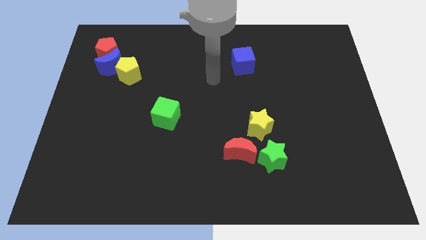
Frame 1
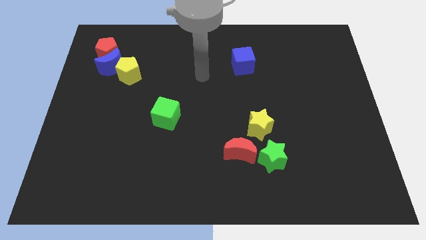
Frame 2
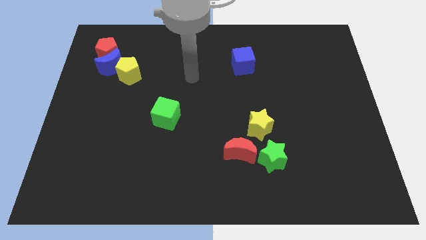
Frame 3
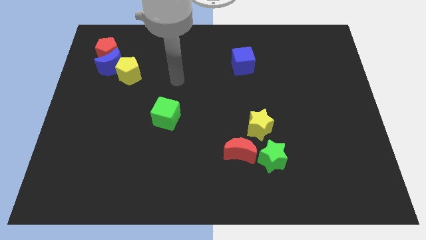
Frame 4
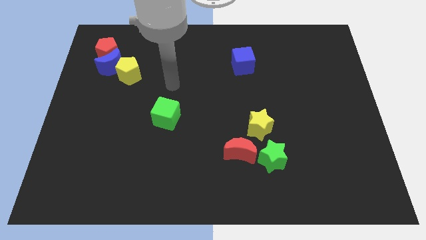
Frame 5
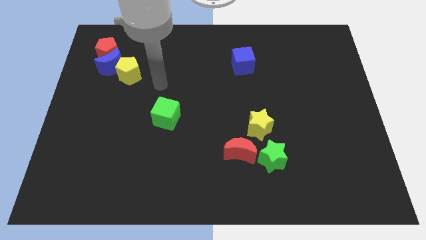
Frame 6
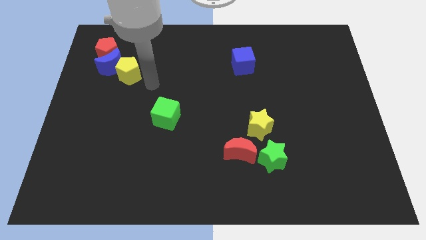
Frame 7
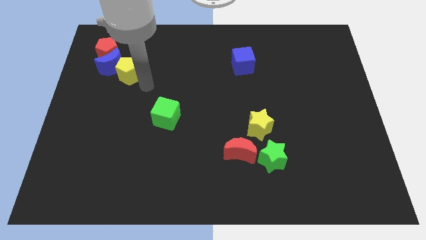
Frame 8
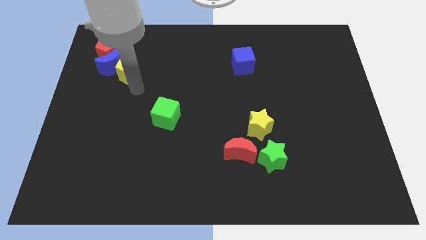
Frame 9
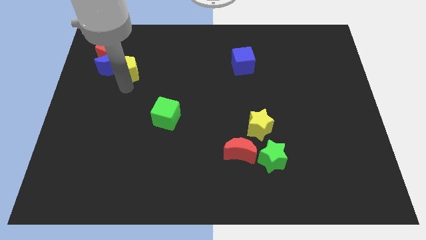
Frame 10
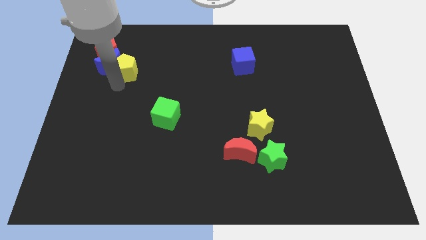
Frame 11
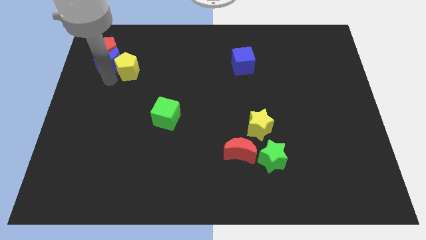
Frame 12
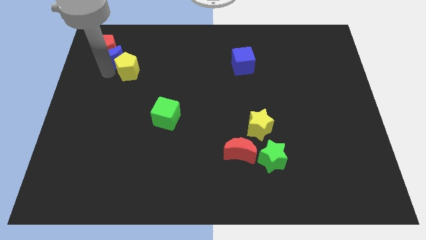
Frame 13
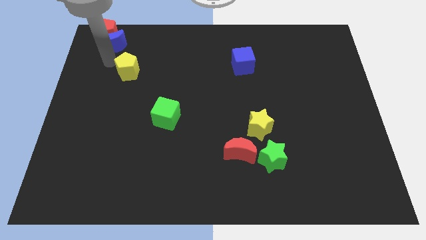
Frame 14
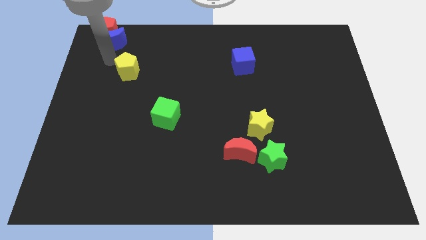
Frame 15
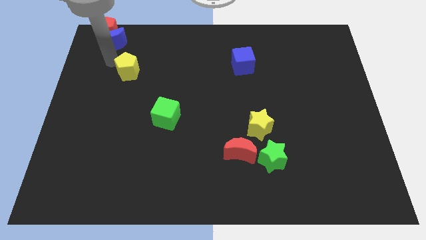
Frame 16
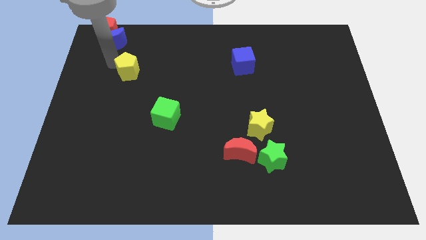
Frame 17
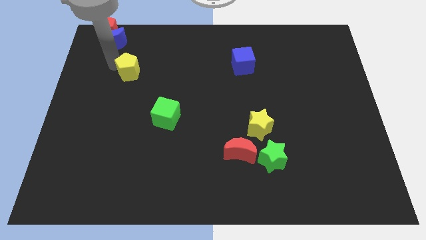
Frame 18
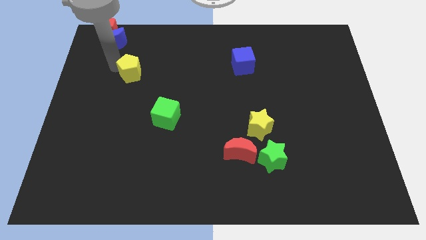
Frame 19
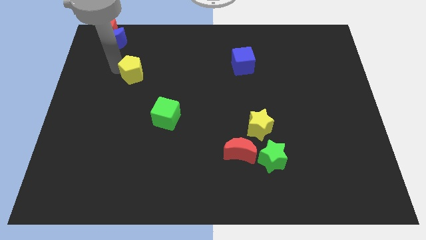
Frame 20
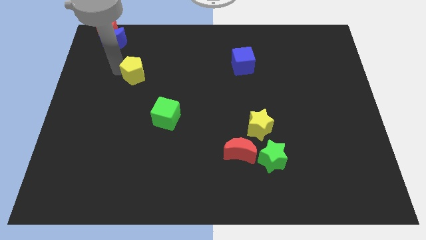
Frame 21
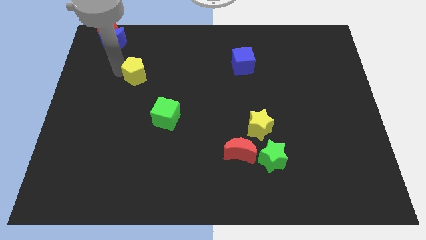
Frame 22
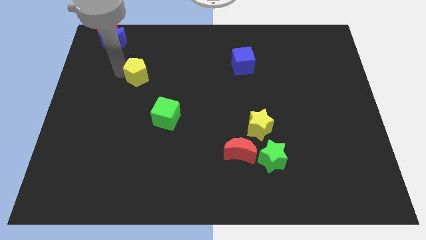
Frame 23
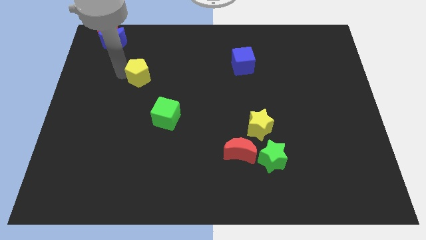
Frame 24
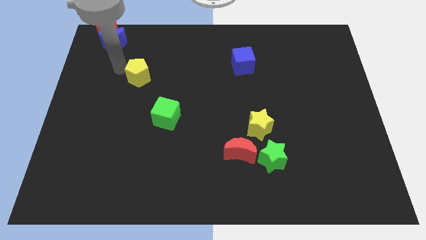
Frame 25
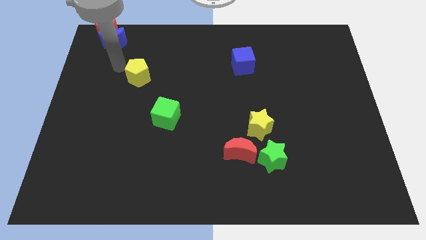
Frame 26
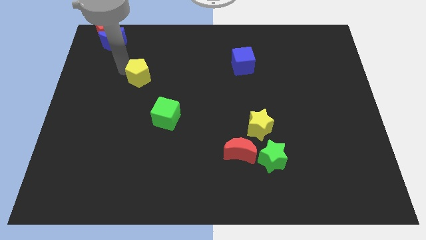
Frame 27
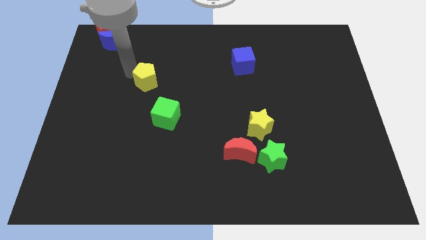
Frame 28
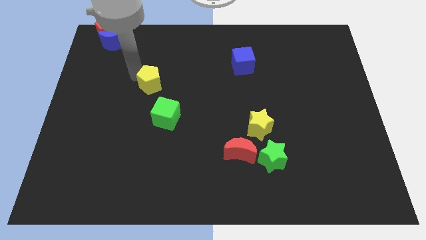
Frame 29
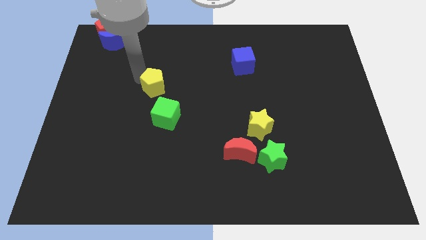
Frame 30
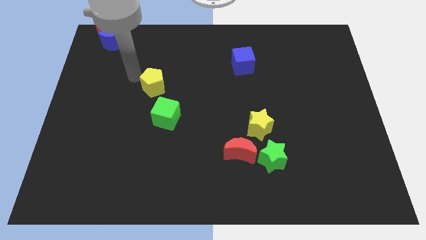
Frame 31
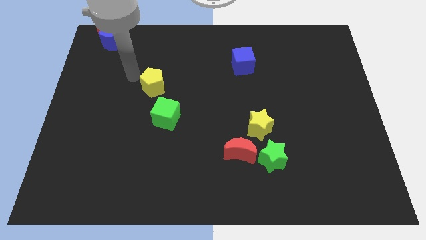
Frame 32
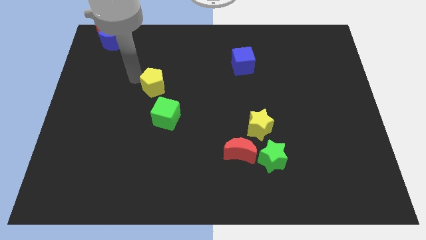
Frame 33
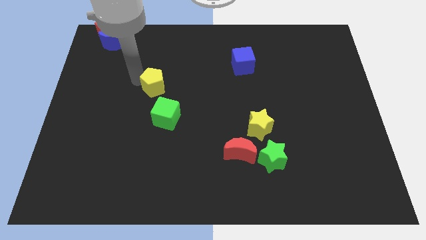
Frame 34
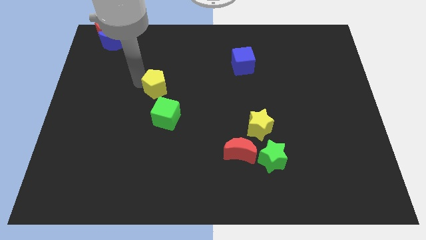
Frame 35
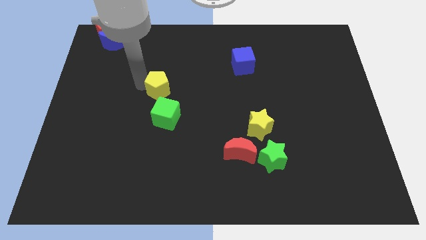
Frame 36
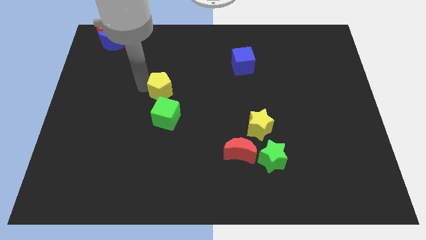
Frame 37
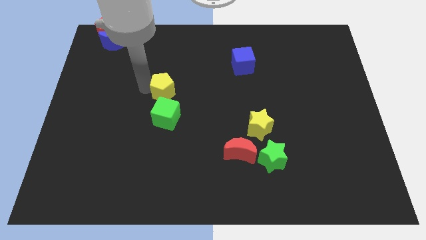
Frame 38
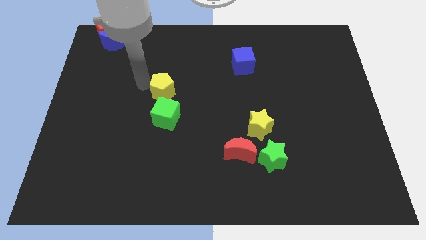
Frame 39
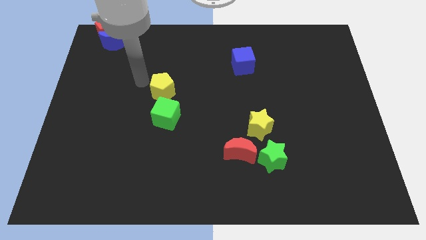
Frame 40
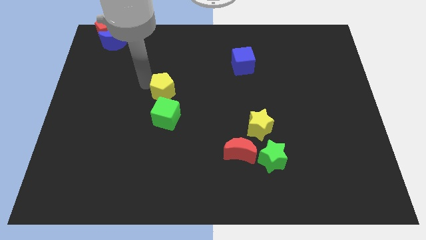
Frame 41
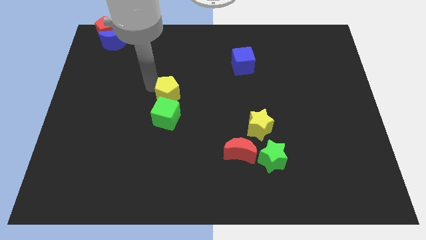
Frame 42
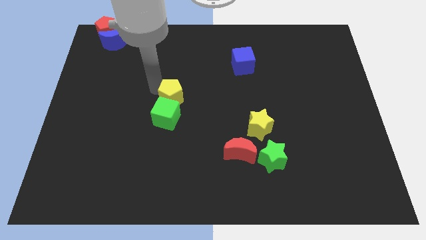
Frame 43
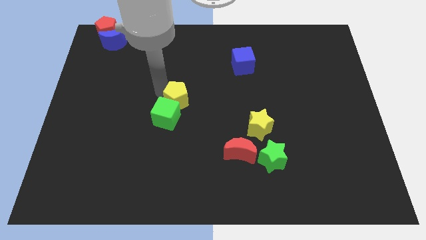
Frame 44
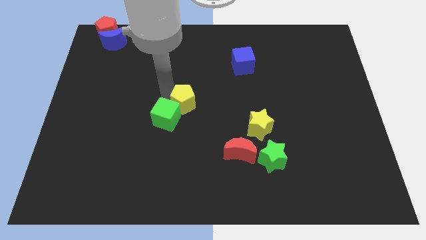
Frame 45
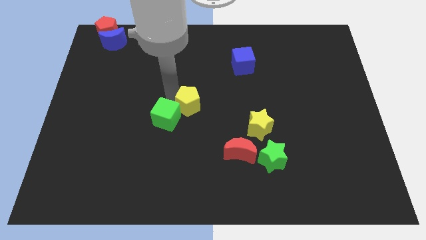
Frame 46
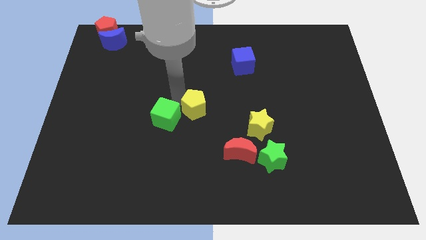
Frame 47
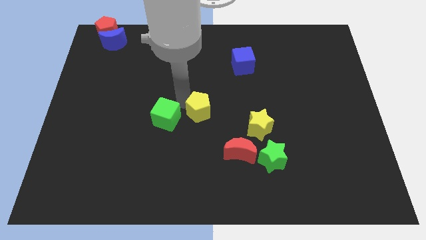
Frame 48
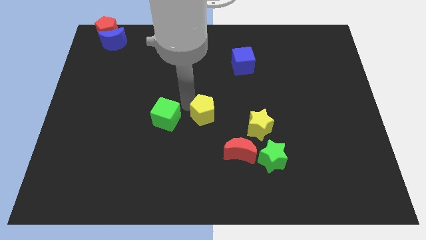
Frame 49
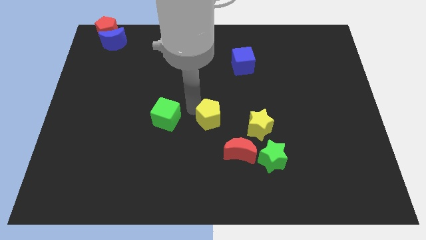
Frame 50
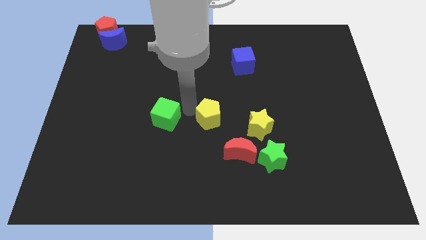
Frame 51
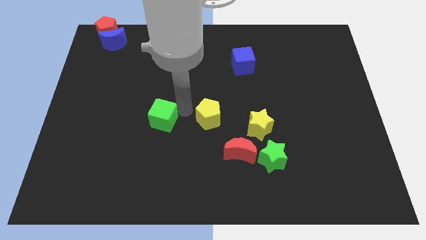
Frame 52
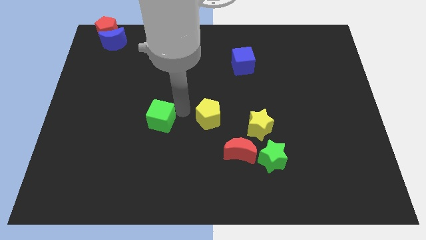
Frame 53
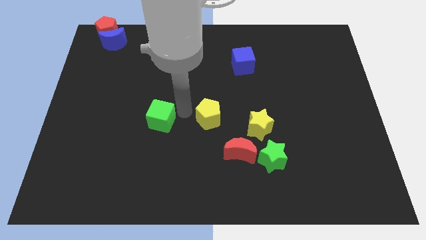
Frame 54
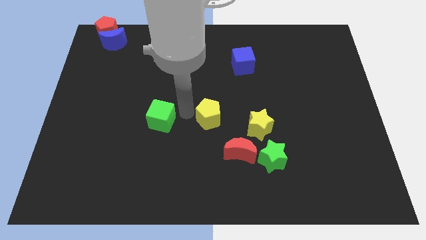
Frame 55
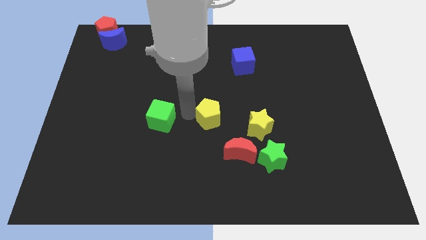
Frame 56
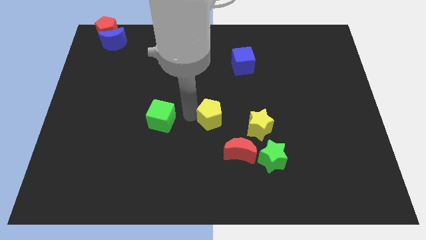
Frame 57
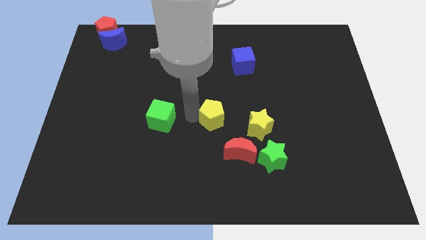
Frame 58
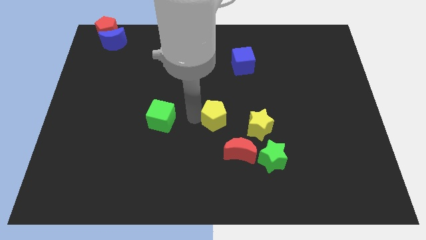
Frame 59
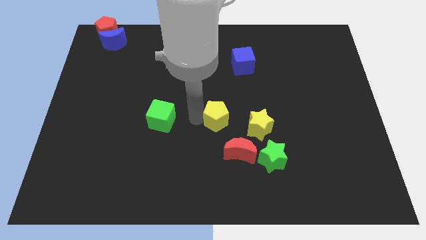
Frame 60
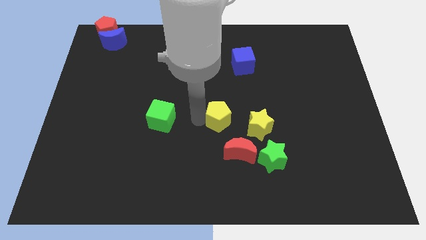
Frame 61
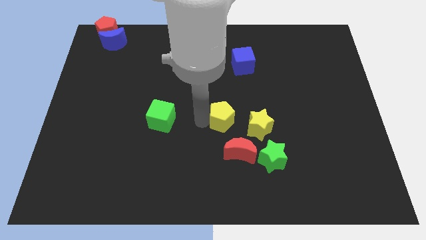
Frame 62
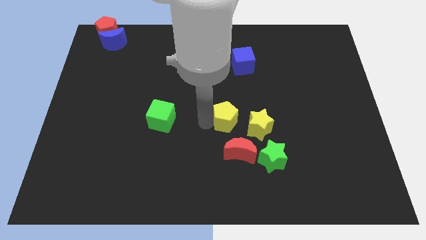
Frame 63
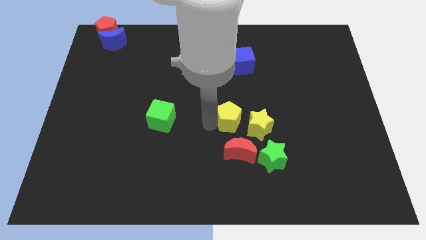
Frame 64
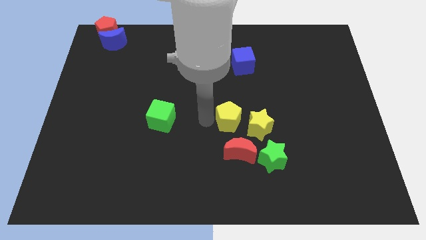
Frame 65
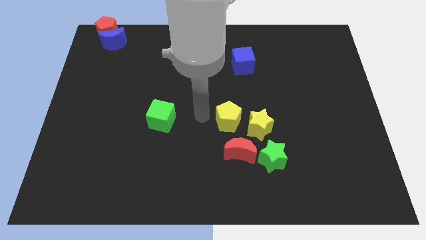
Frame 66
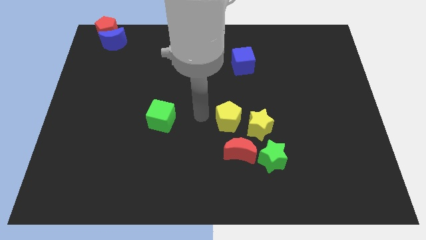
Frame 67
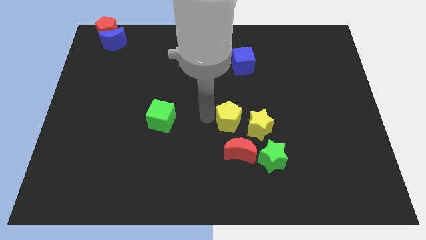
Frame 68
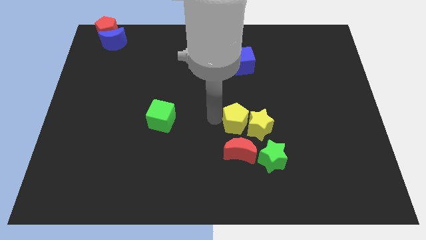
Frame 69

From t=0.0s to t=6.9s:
put the yellow pentagon next to the yellow star
